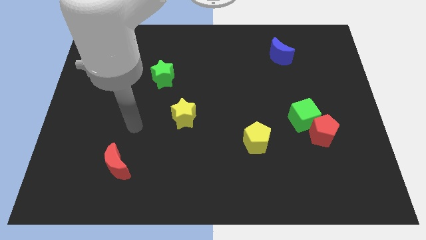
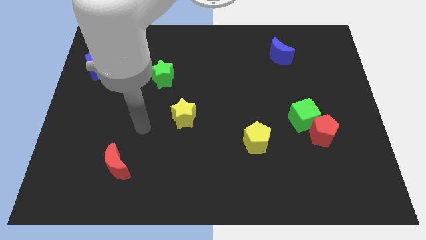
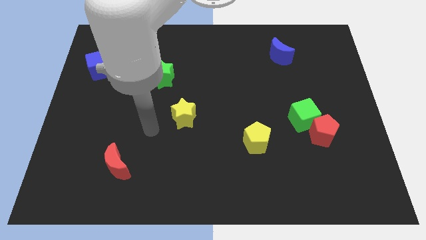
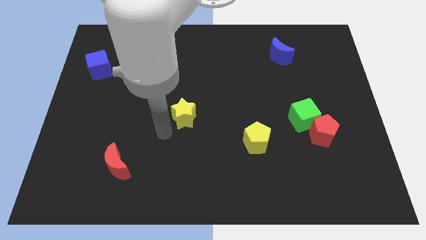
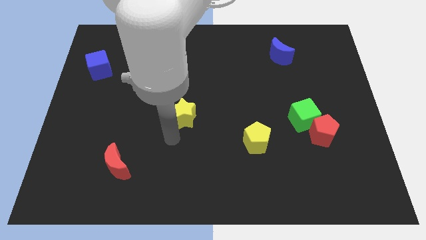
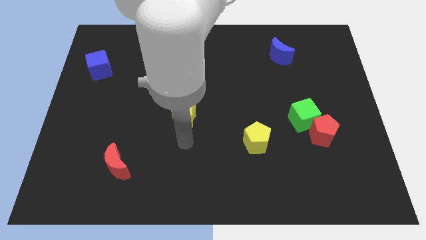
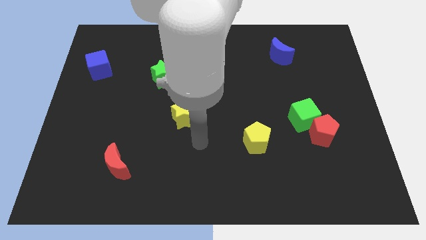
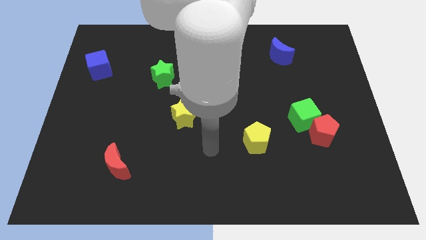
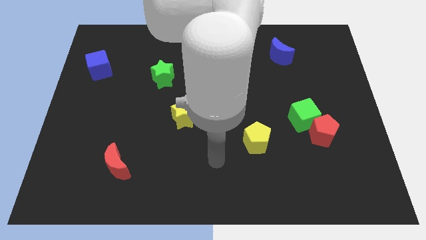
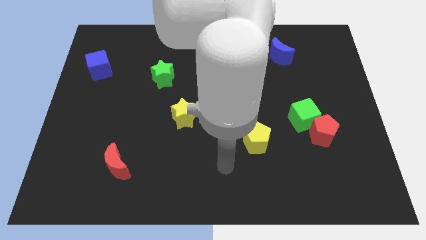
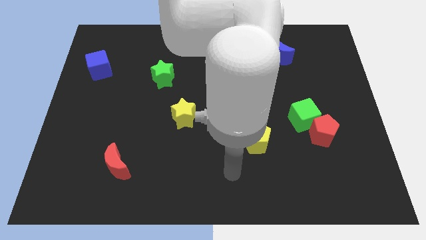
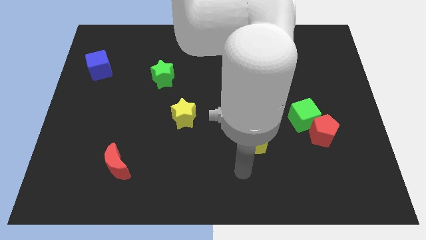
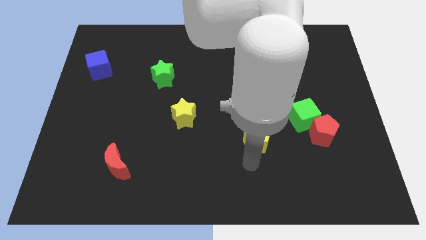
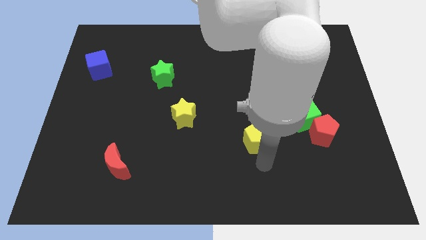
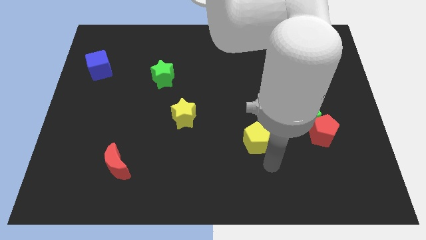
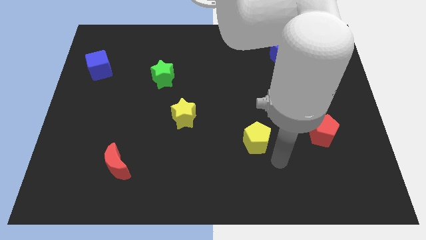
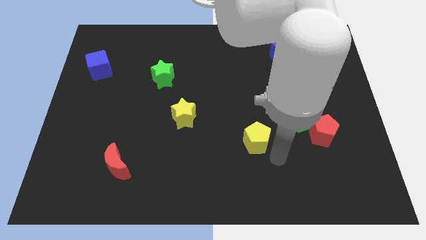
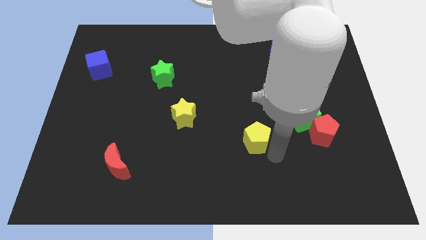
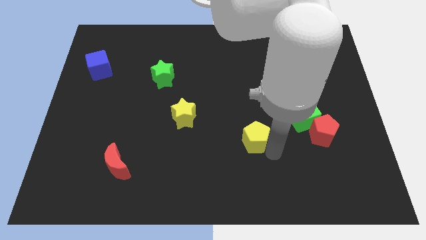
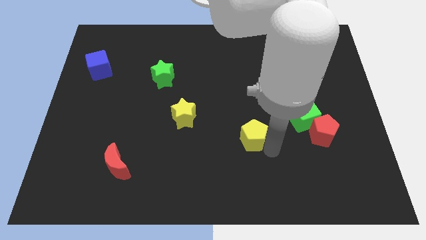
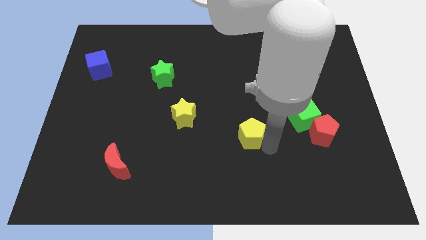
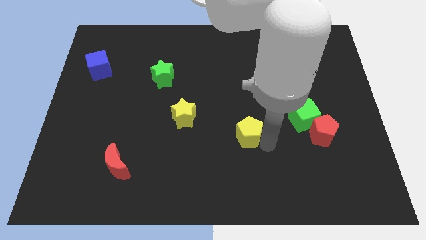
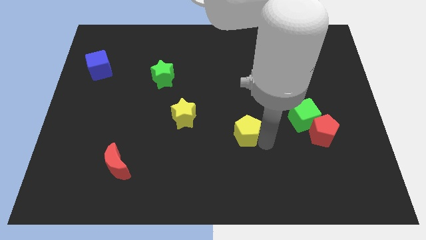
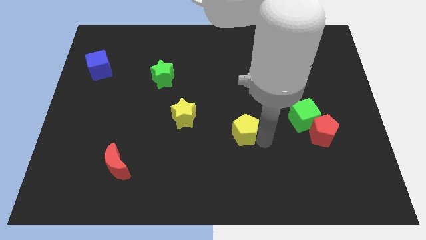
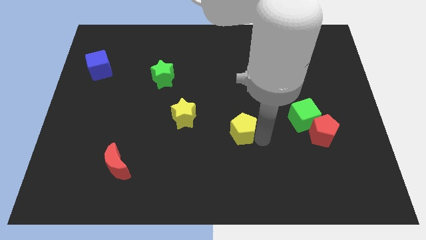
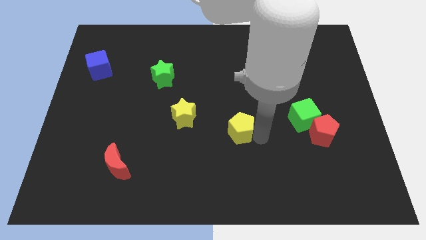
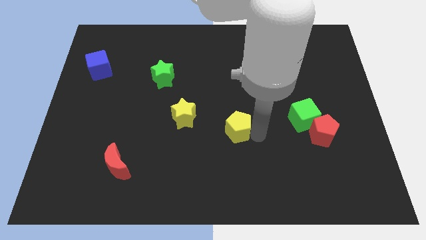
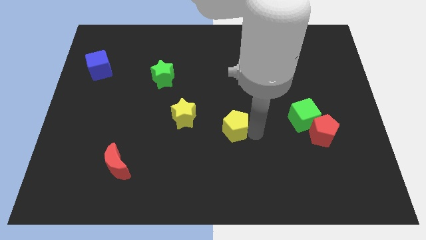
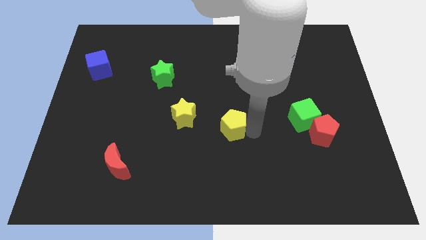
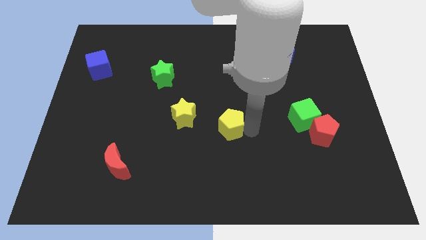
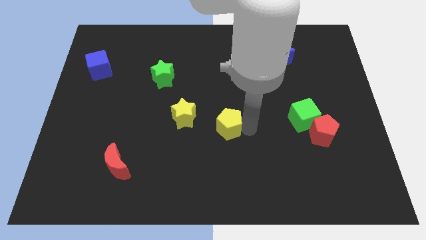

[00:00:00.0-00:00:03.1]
slide the yellow pentagon a bit diagonally upwards and to the left

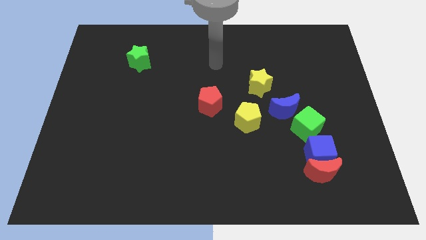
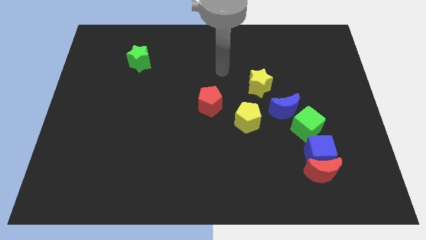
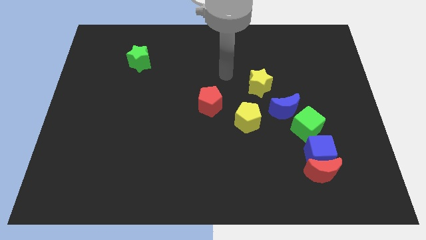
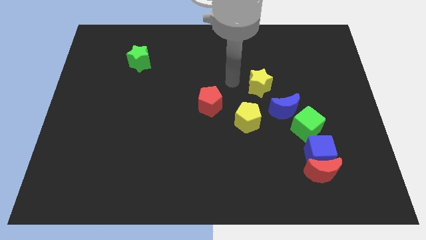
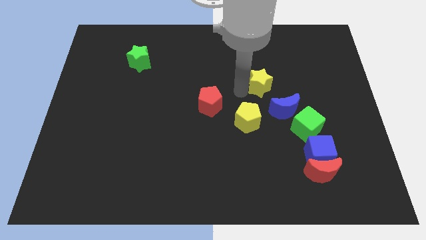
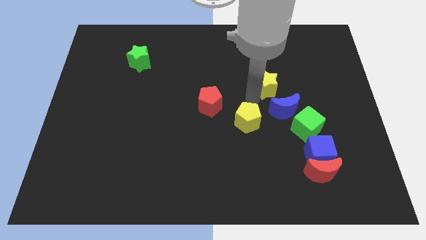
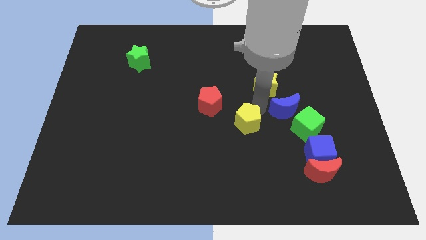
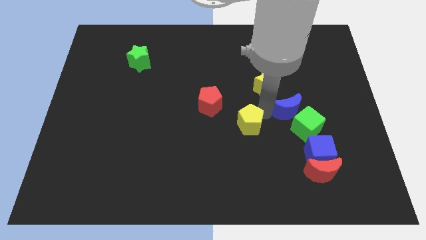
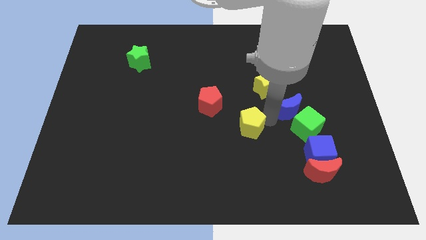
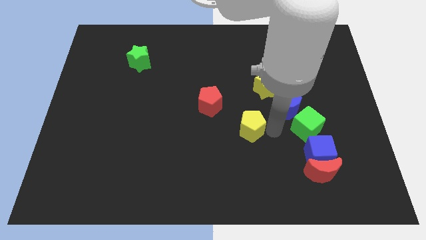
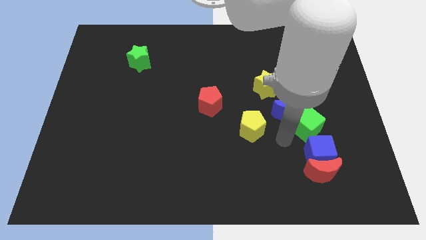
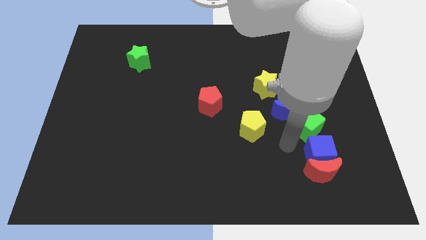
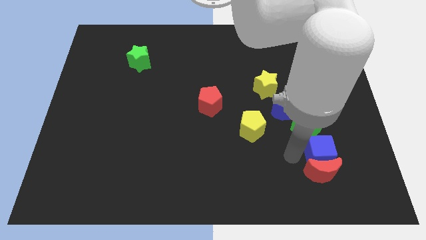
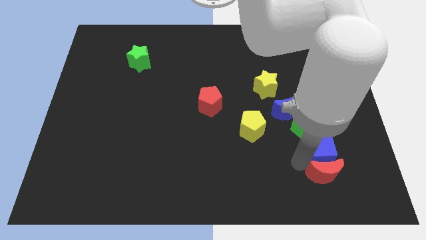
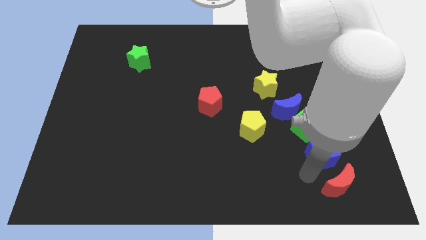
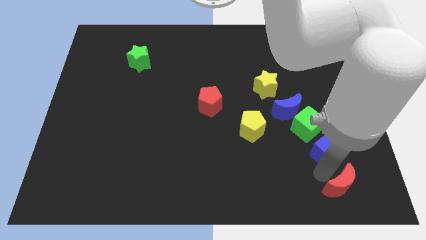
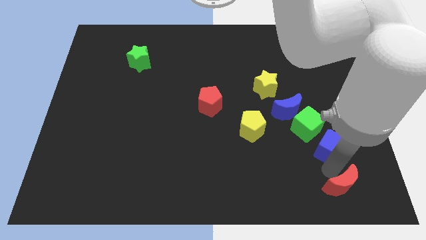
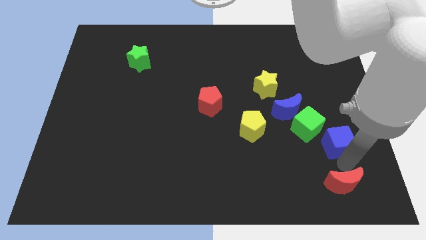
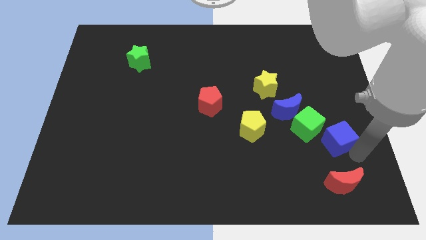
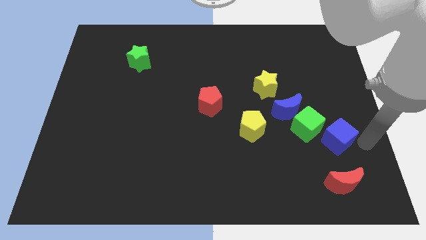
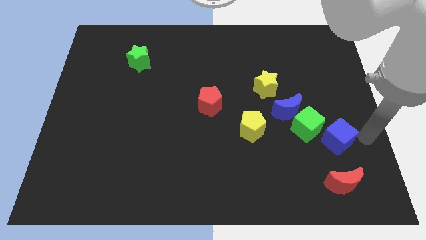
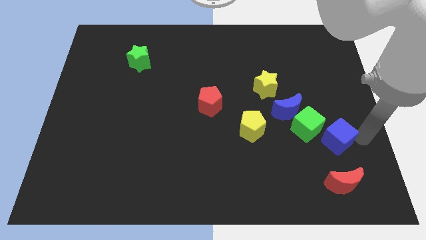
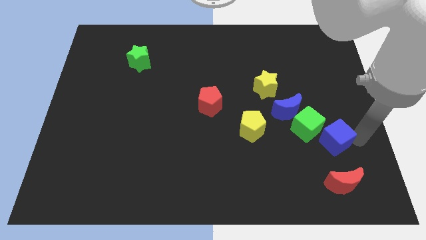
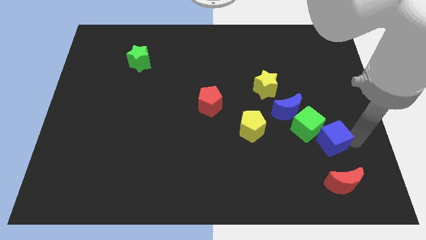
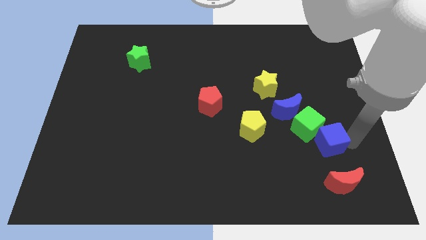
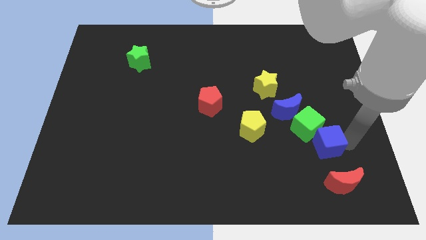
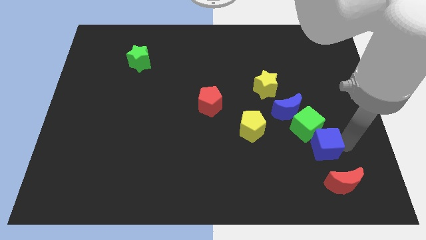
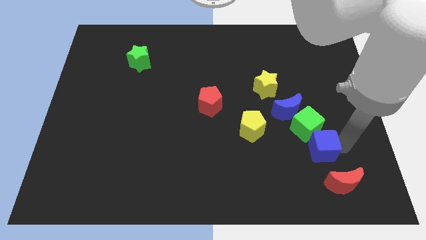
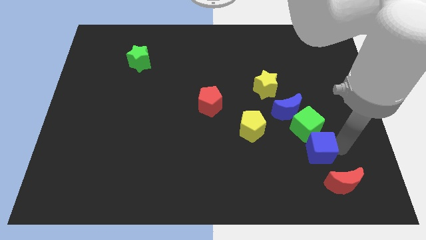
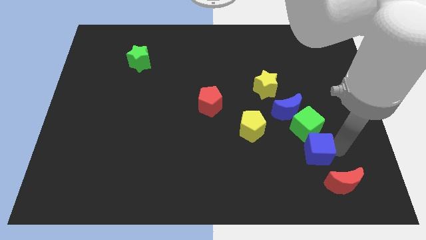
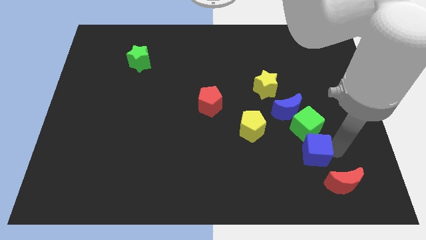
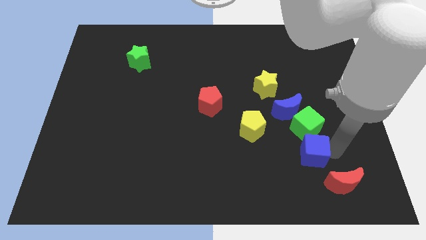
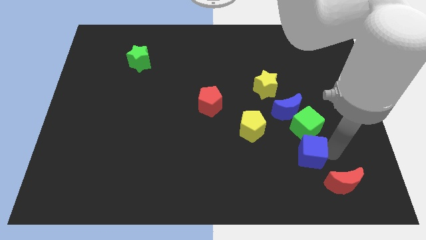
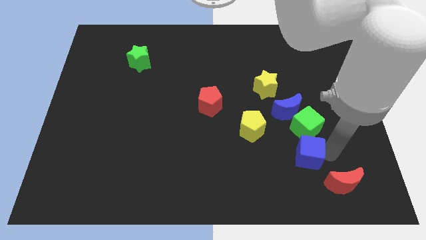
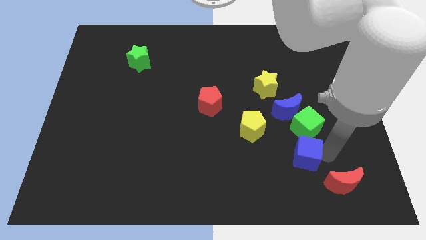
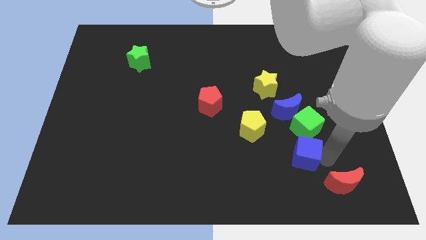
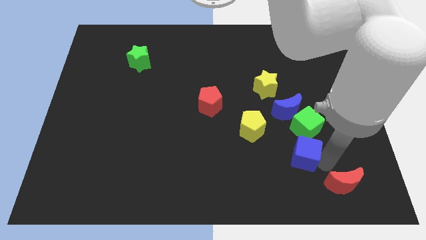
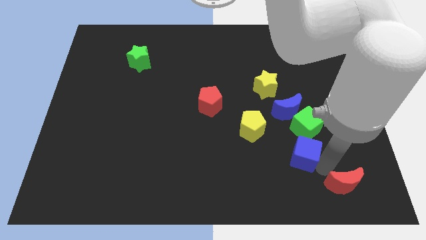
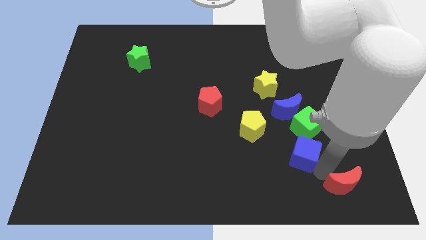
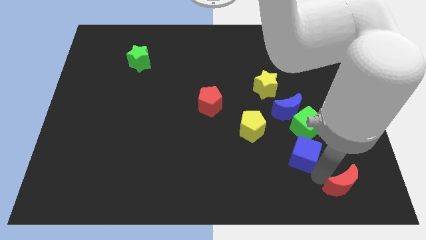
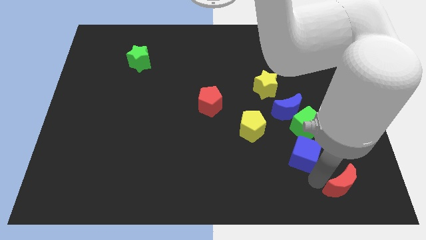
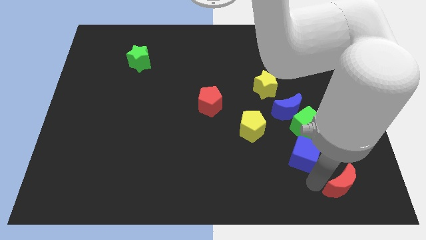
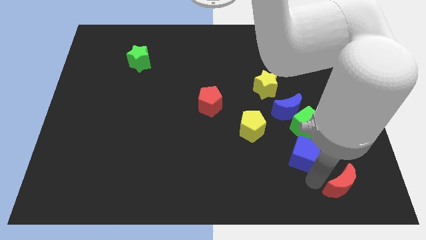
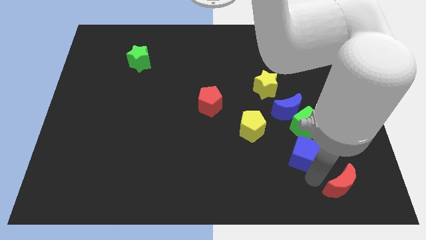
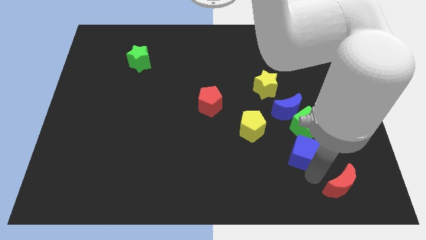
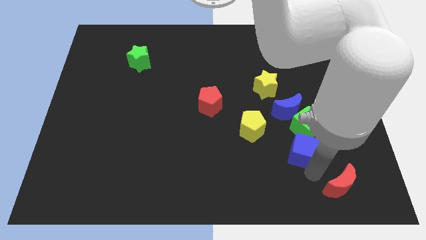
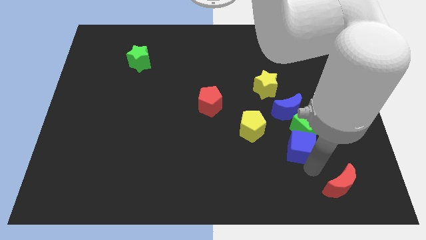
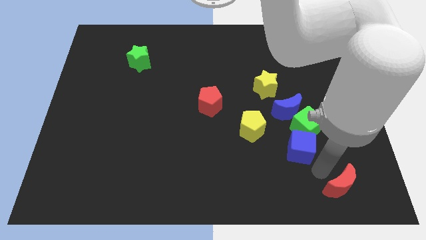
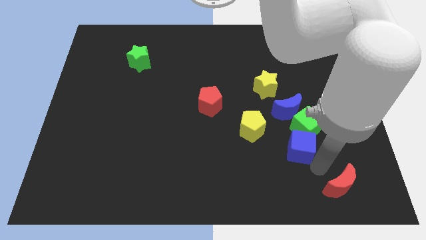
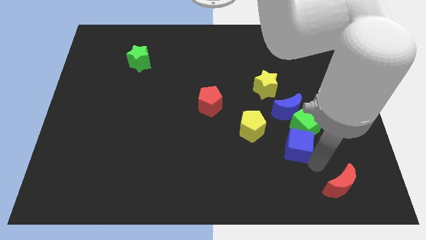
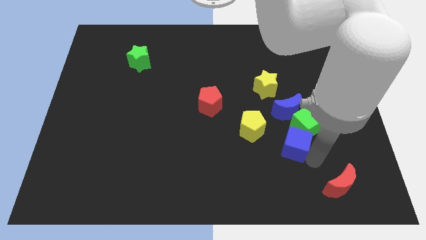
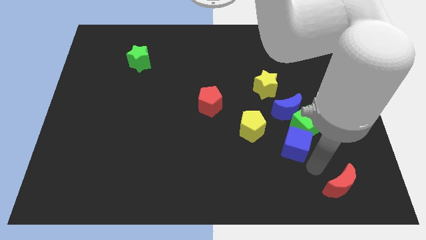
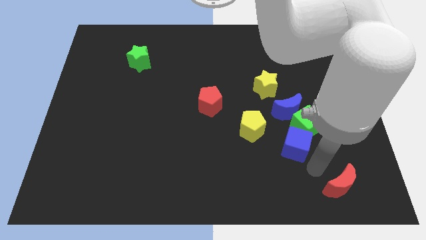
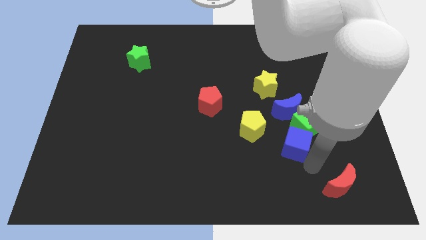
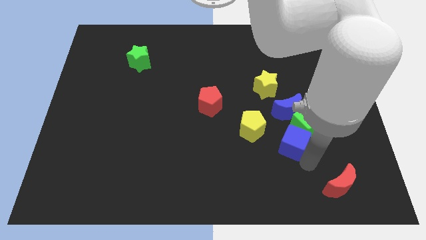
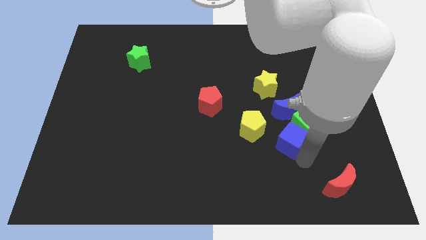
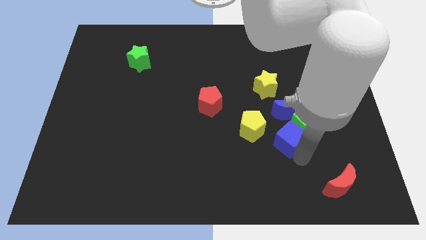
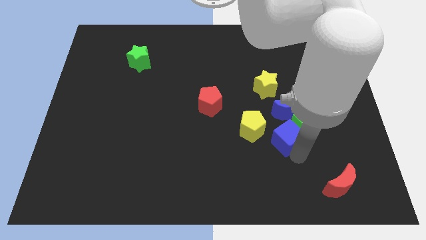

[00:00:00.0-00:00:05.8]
push the blue cube up and then left slightly
